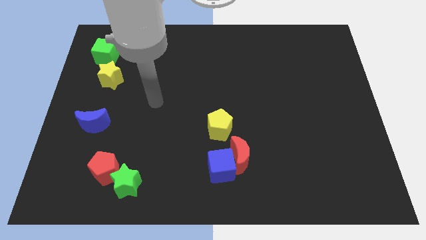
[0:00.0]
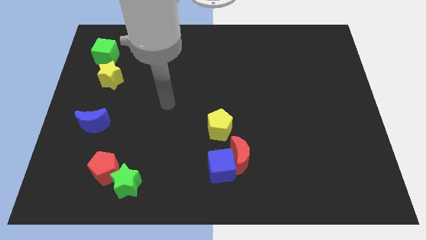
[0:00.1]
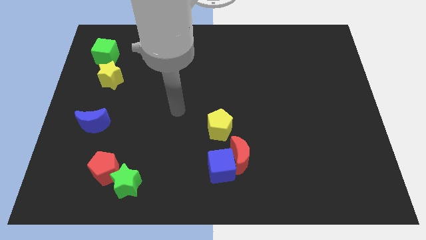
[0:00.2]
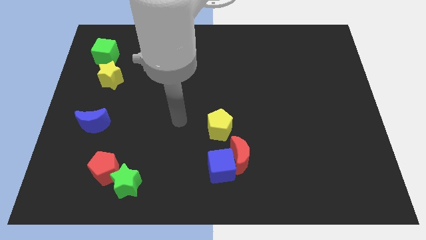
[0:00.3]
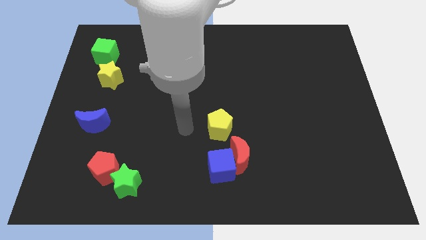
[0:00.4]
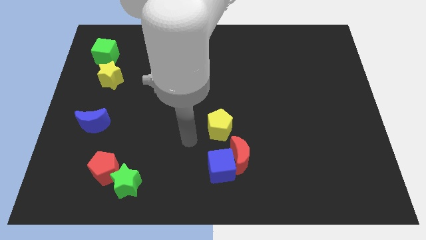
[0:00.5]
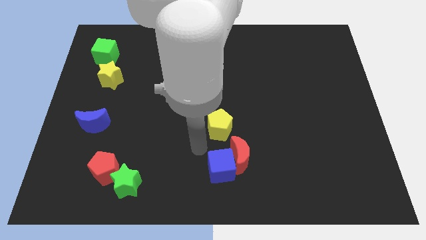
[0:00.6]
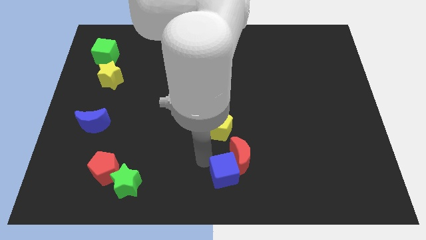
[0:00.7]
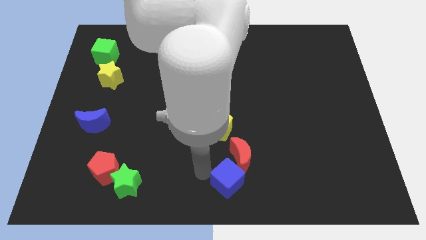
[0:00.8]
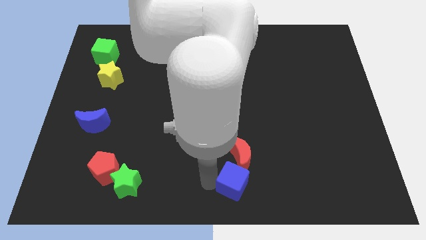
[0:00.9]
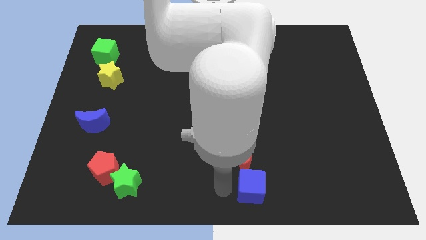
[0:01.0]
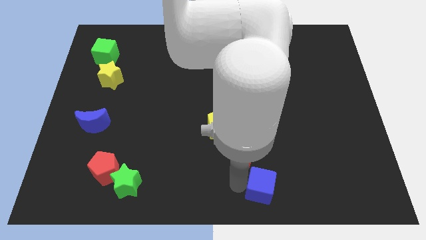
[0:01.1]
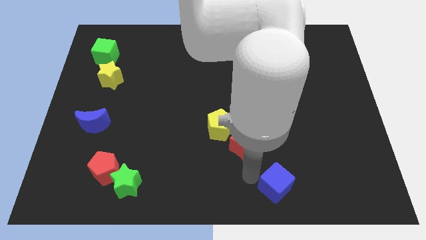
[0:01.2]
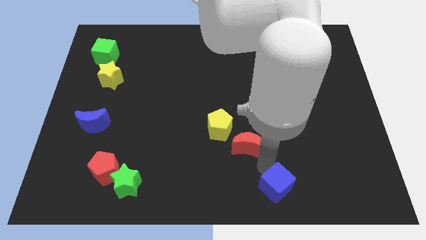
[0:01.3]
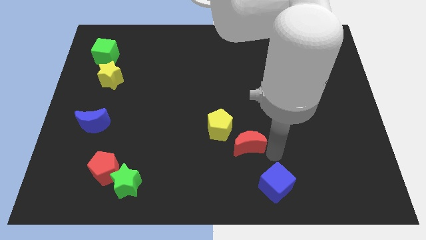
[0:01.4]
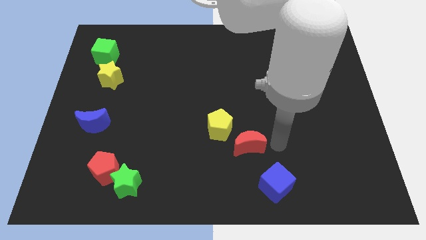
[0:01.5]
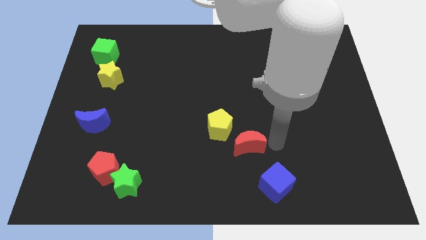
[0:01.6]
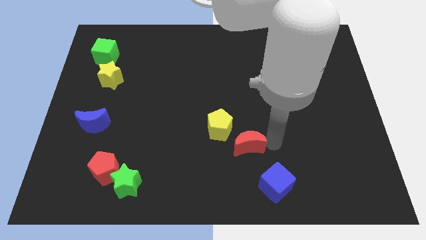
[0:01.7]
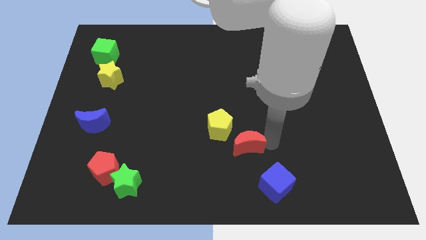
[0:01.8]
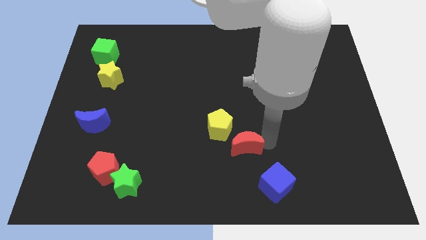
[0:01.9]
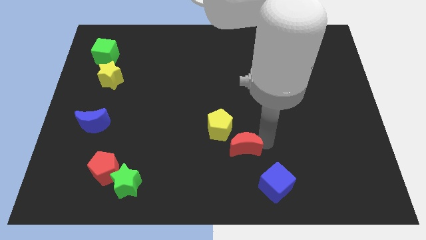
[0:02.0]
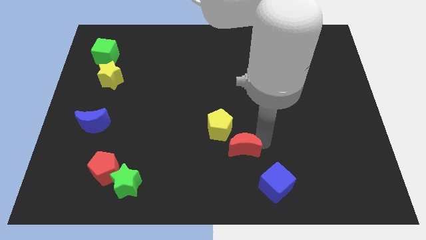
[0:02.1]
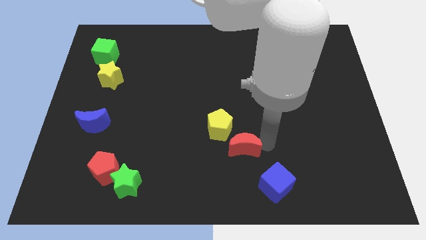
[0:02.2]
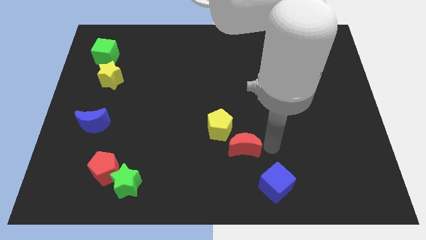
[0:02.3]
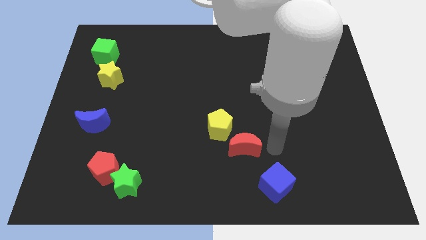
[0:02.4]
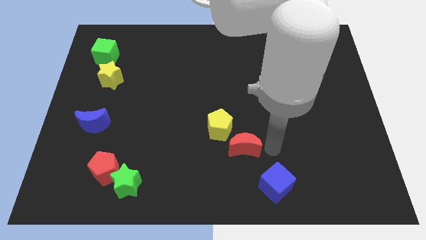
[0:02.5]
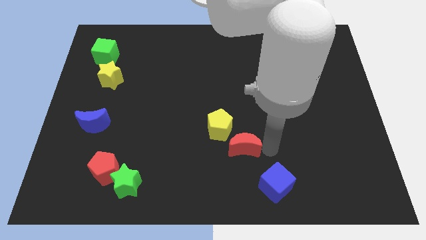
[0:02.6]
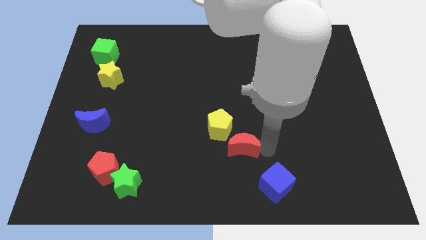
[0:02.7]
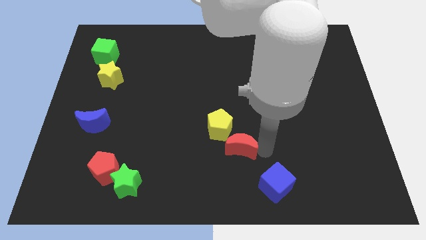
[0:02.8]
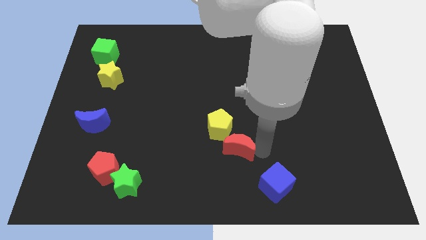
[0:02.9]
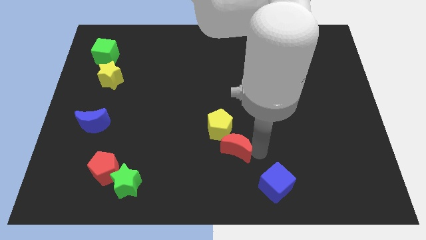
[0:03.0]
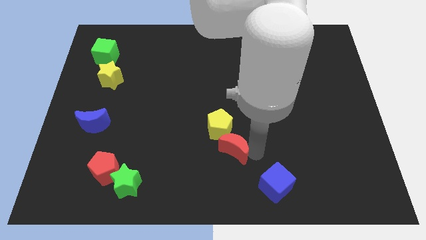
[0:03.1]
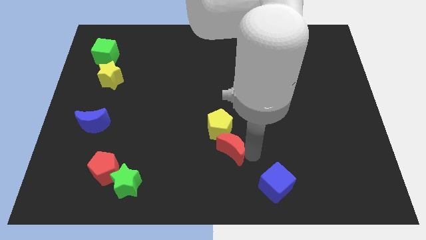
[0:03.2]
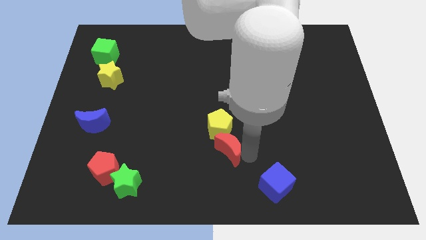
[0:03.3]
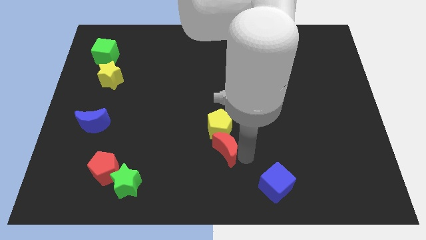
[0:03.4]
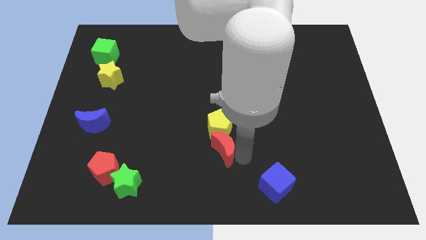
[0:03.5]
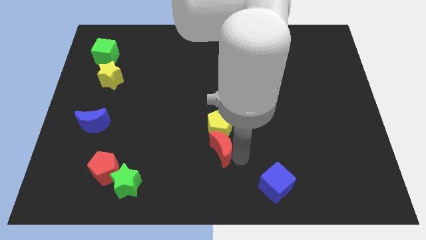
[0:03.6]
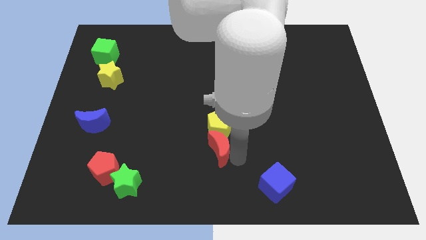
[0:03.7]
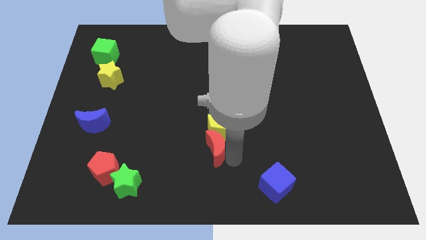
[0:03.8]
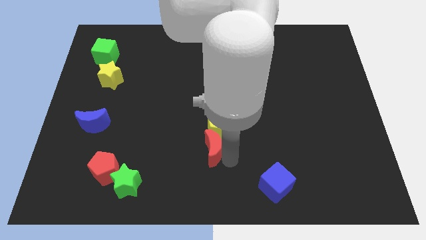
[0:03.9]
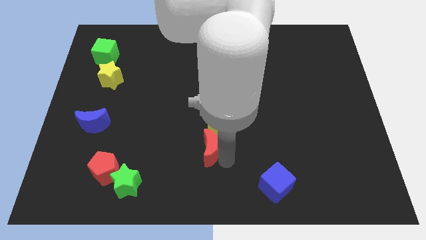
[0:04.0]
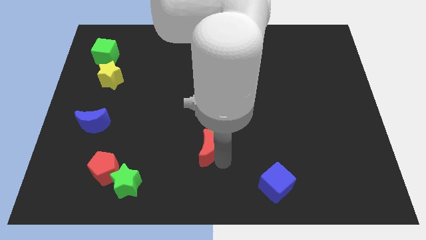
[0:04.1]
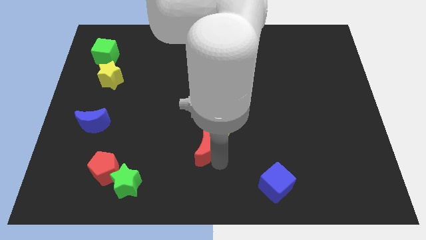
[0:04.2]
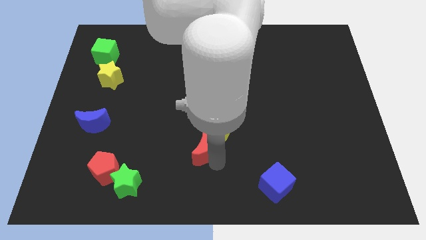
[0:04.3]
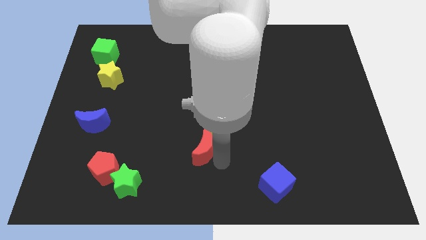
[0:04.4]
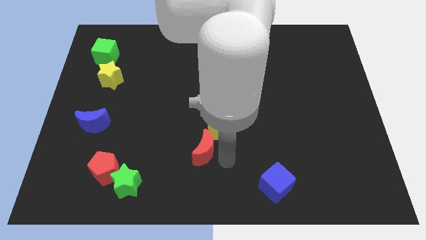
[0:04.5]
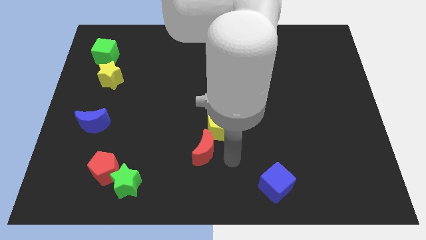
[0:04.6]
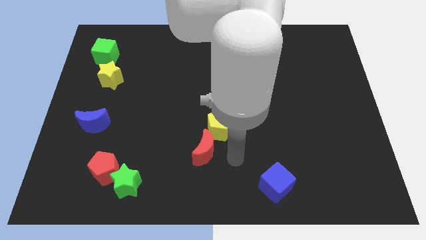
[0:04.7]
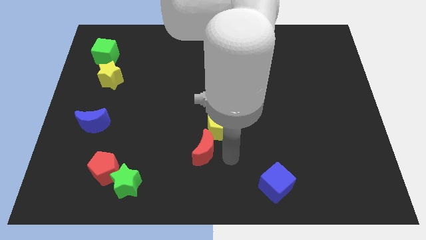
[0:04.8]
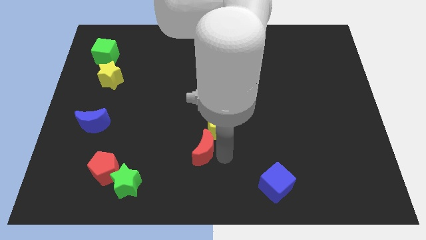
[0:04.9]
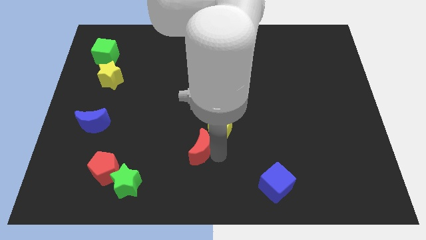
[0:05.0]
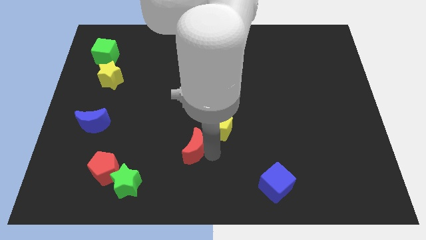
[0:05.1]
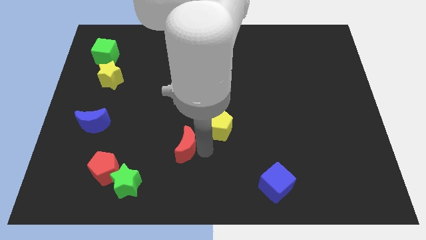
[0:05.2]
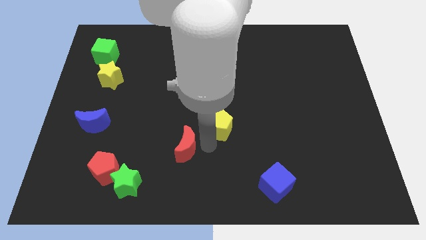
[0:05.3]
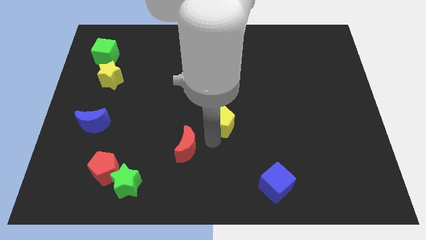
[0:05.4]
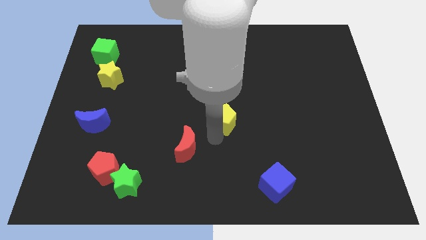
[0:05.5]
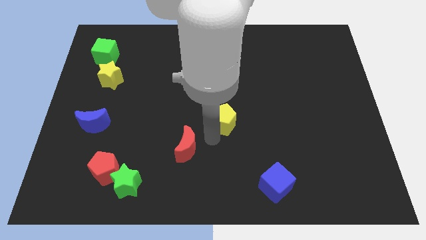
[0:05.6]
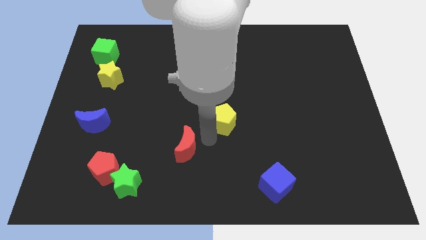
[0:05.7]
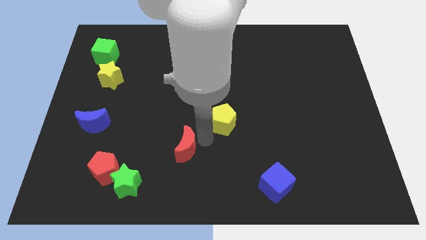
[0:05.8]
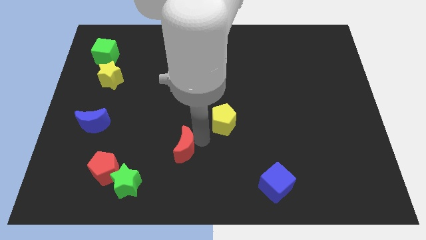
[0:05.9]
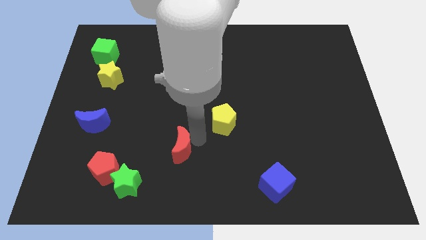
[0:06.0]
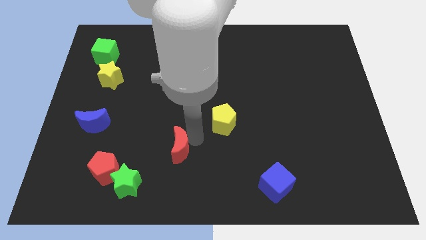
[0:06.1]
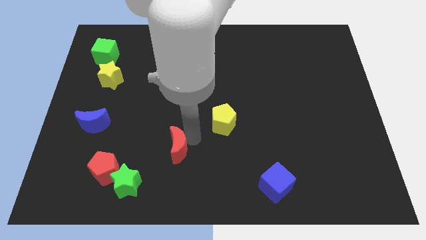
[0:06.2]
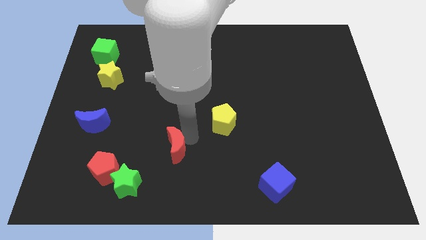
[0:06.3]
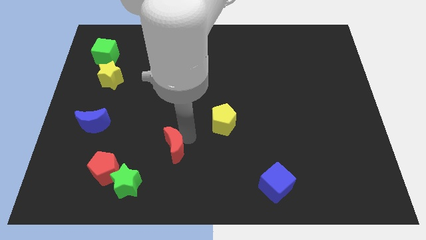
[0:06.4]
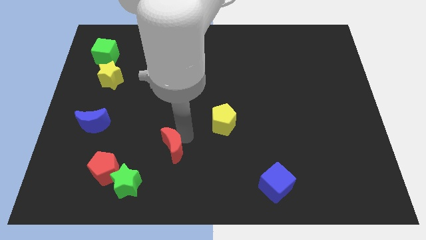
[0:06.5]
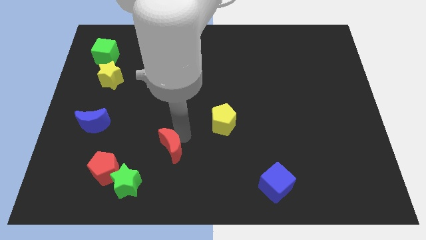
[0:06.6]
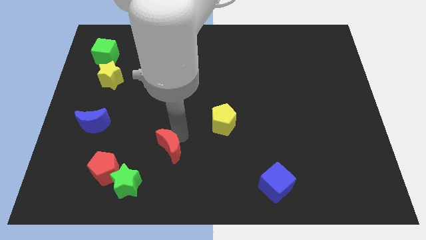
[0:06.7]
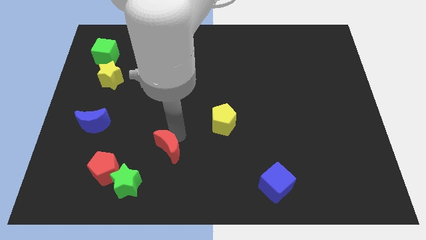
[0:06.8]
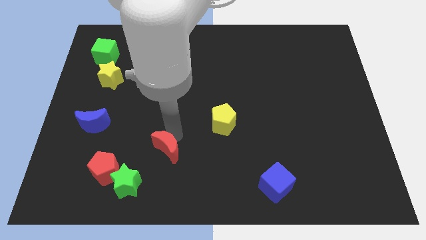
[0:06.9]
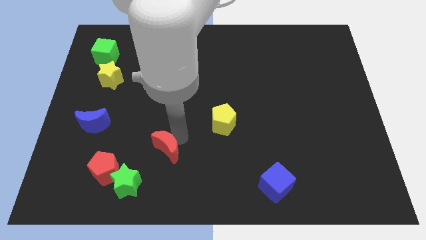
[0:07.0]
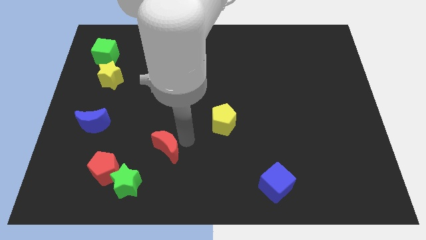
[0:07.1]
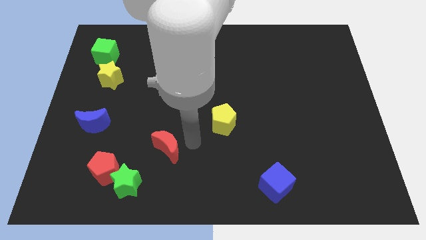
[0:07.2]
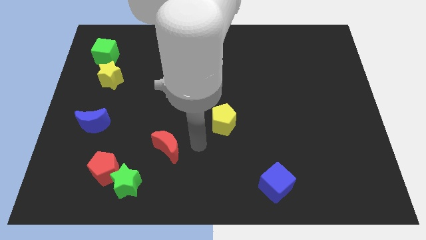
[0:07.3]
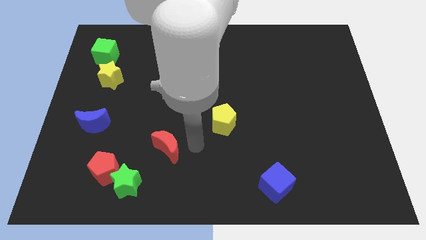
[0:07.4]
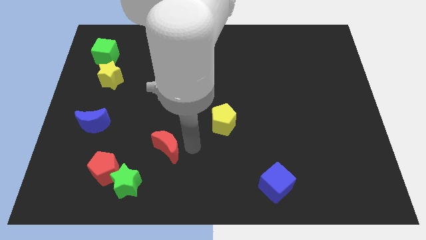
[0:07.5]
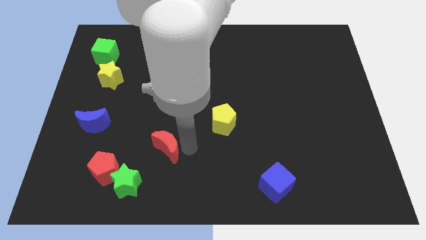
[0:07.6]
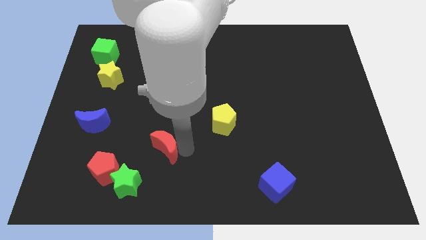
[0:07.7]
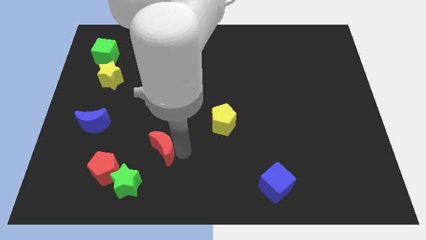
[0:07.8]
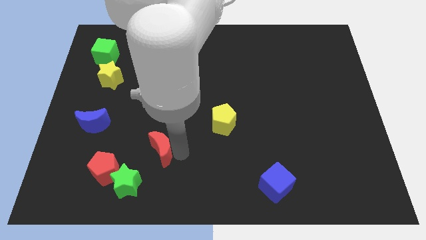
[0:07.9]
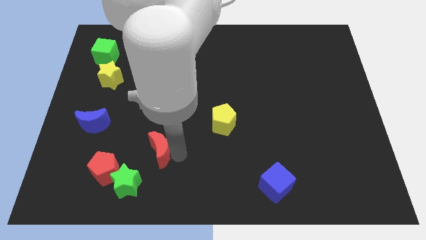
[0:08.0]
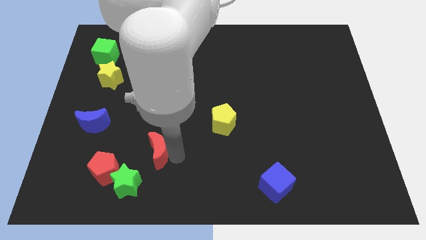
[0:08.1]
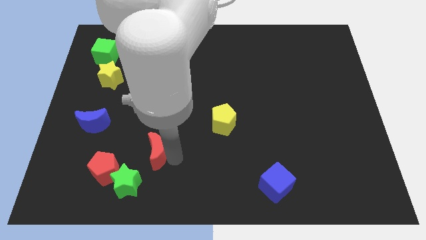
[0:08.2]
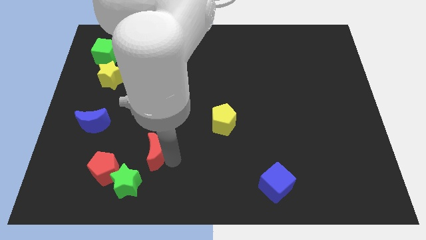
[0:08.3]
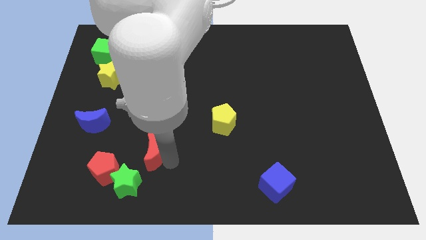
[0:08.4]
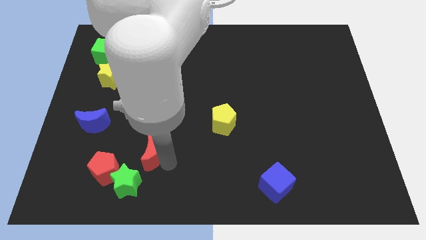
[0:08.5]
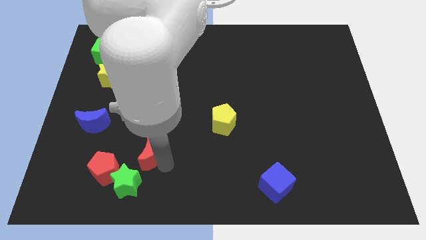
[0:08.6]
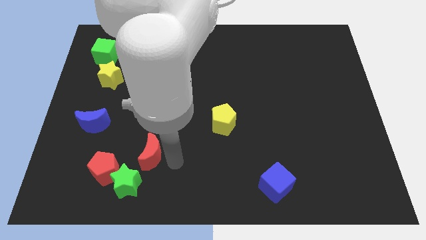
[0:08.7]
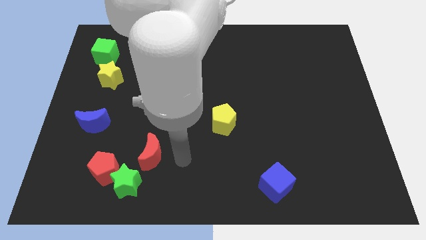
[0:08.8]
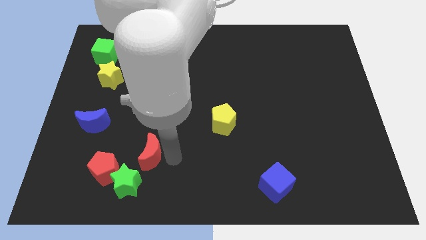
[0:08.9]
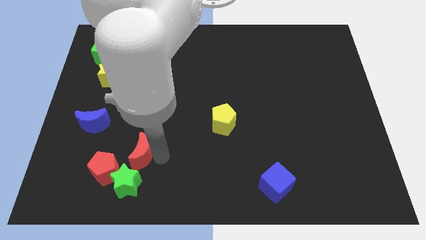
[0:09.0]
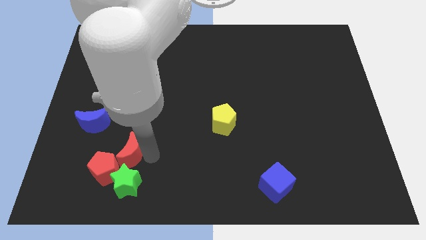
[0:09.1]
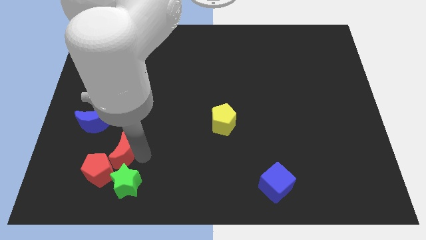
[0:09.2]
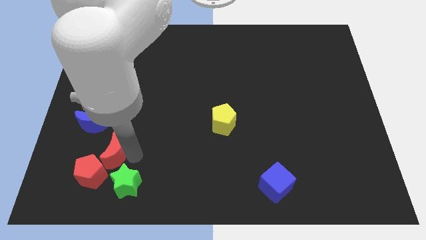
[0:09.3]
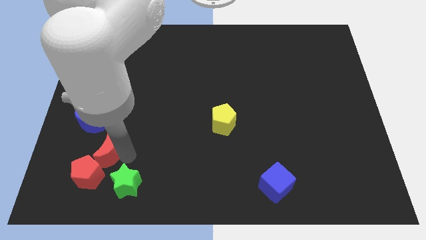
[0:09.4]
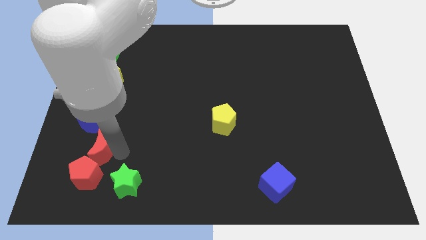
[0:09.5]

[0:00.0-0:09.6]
move the red moon below the blue moon
